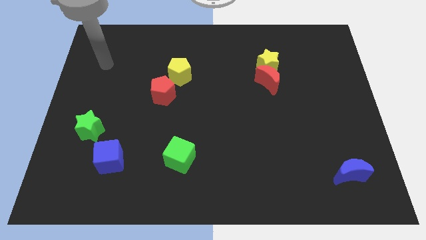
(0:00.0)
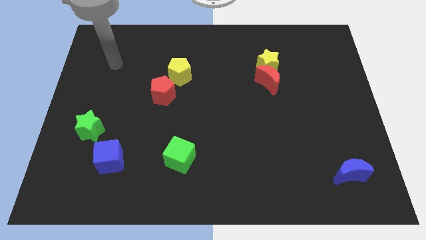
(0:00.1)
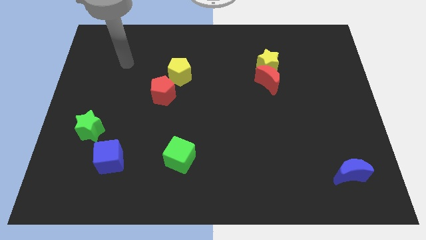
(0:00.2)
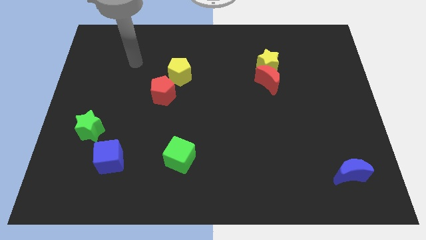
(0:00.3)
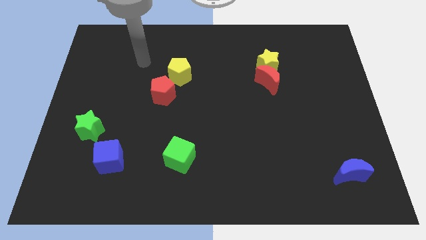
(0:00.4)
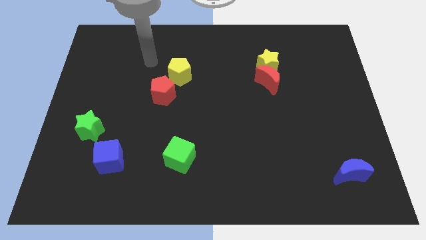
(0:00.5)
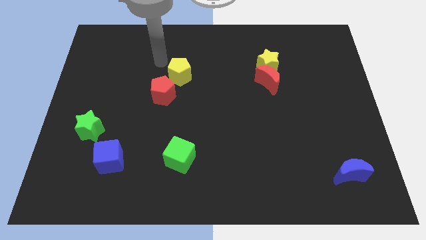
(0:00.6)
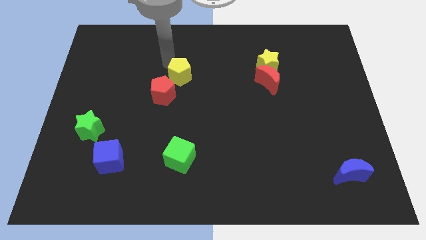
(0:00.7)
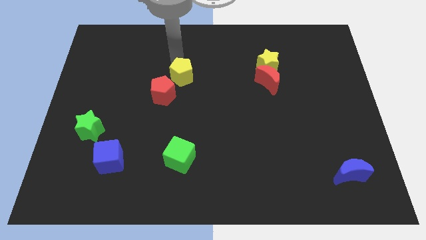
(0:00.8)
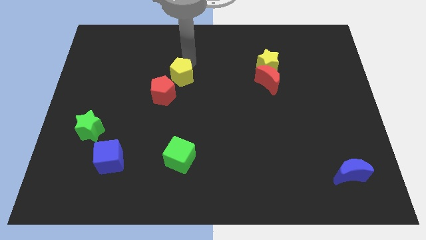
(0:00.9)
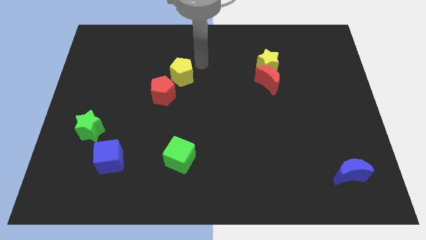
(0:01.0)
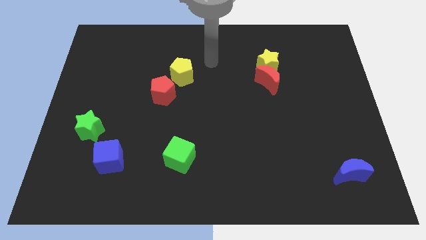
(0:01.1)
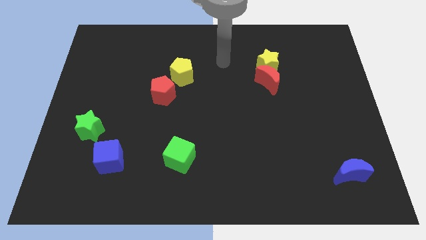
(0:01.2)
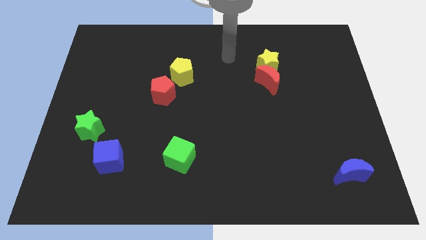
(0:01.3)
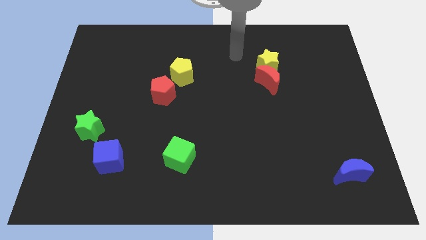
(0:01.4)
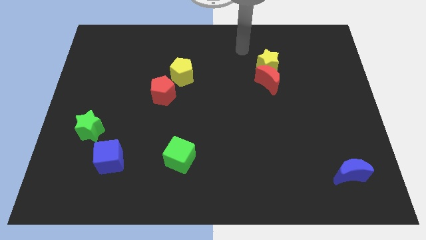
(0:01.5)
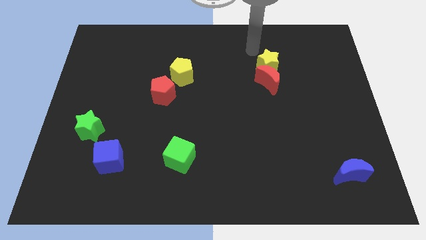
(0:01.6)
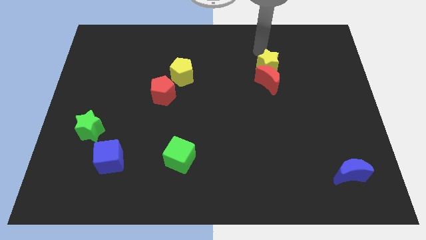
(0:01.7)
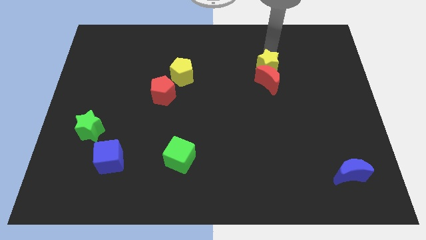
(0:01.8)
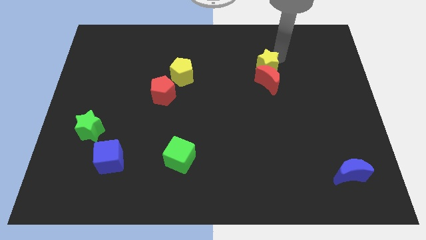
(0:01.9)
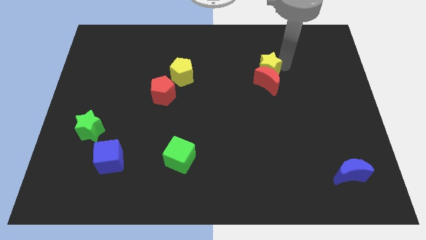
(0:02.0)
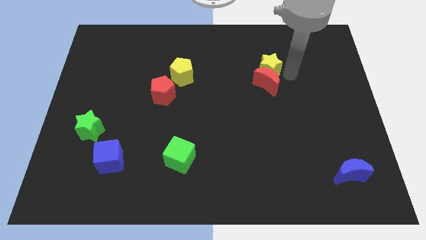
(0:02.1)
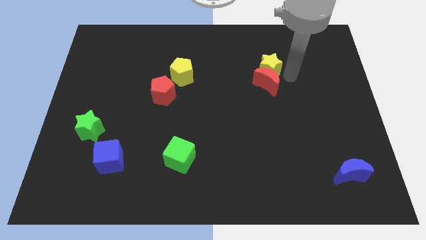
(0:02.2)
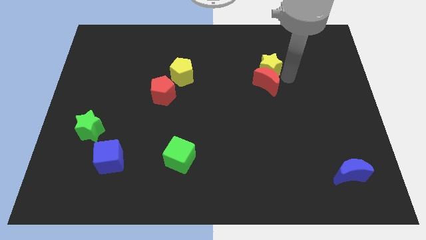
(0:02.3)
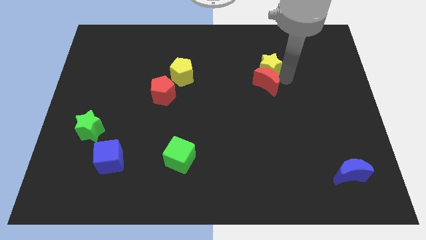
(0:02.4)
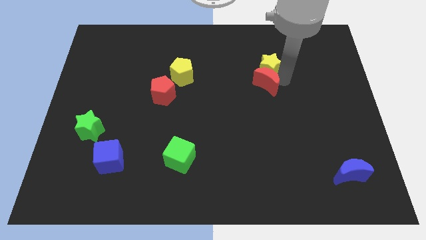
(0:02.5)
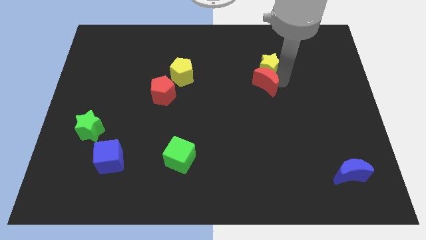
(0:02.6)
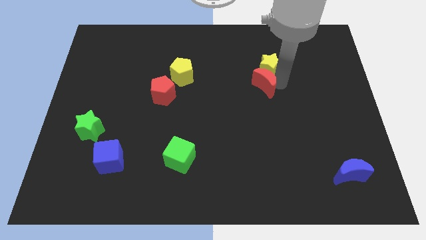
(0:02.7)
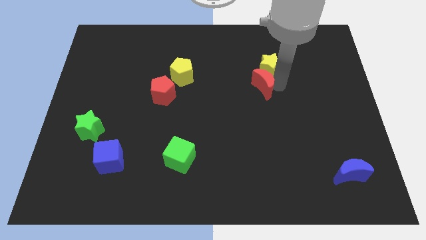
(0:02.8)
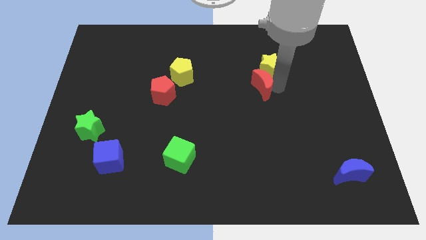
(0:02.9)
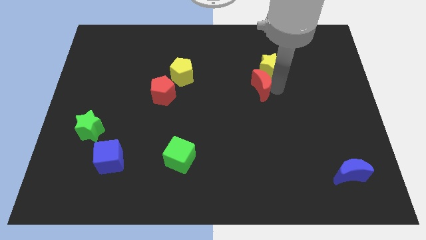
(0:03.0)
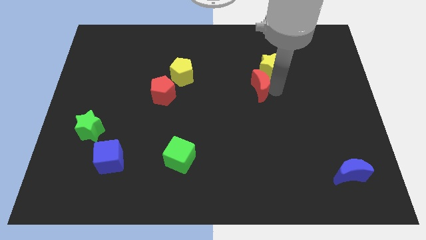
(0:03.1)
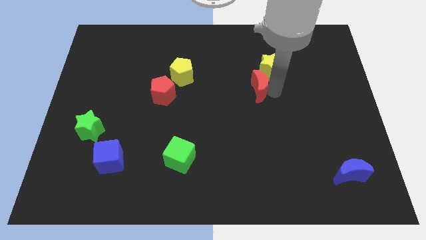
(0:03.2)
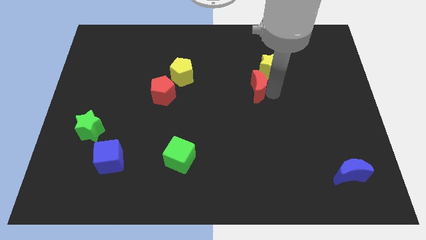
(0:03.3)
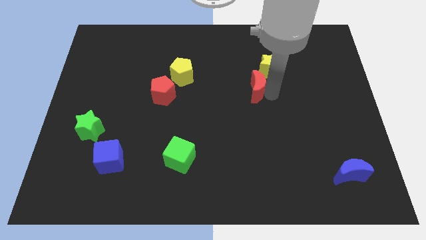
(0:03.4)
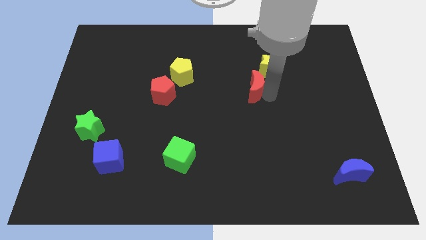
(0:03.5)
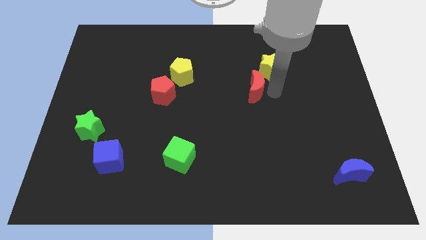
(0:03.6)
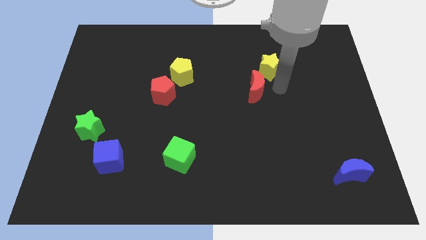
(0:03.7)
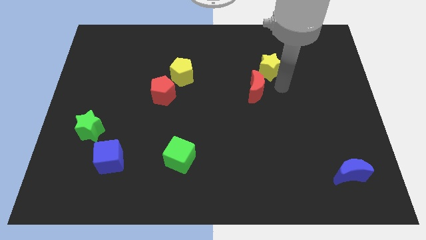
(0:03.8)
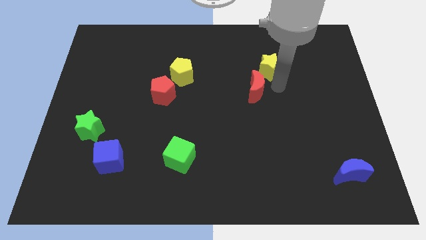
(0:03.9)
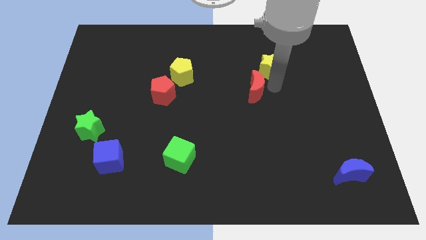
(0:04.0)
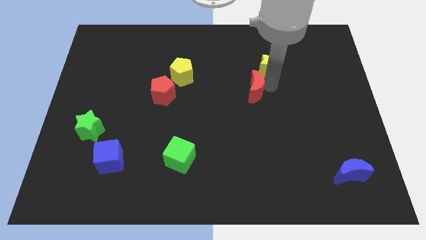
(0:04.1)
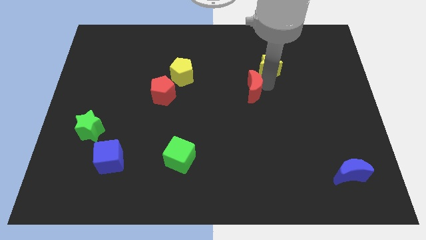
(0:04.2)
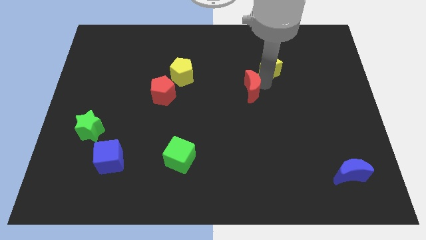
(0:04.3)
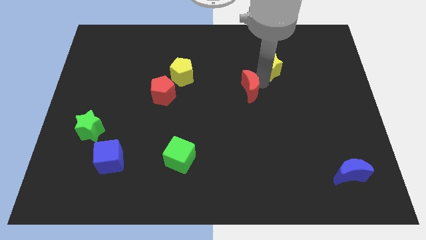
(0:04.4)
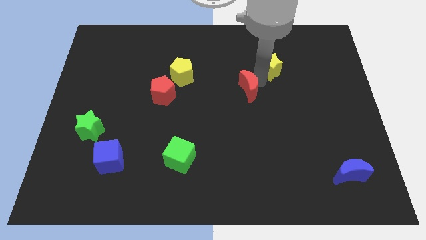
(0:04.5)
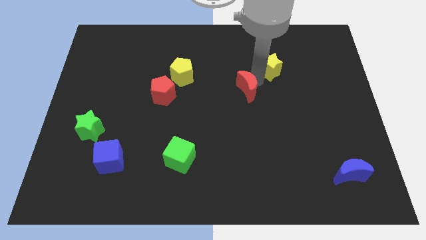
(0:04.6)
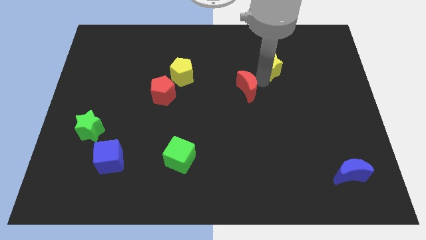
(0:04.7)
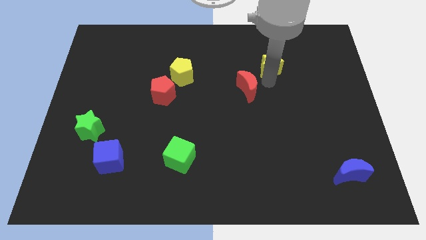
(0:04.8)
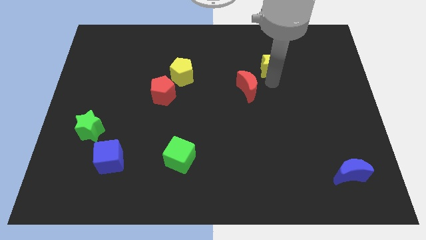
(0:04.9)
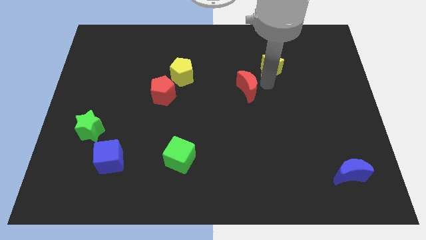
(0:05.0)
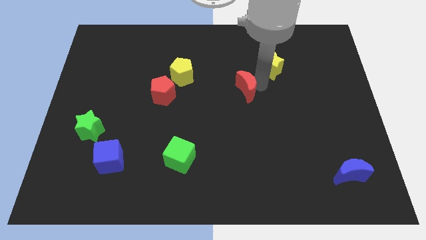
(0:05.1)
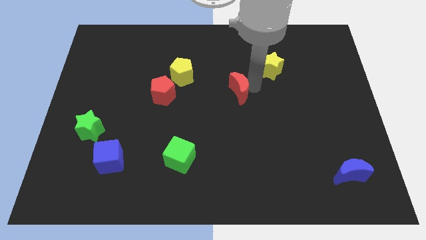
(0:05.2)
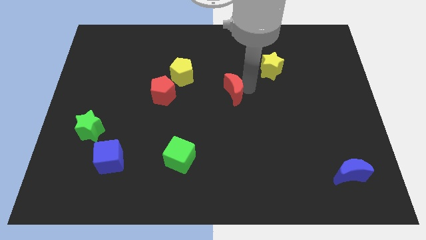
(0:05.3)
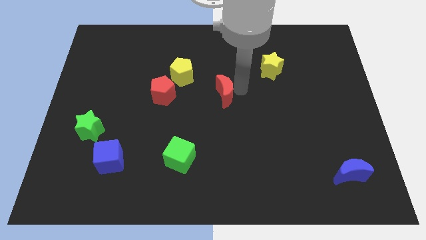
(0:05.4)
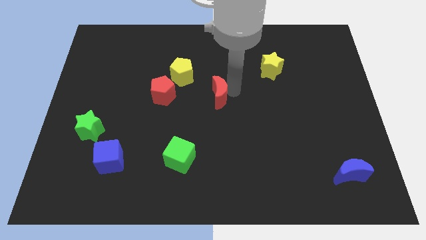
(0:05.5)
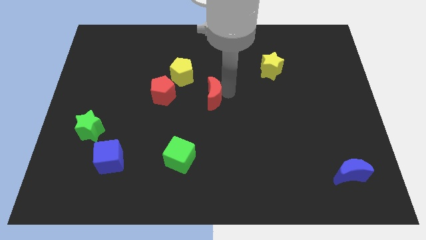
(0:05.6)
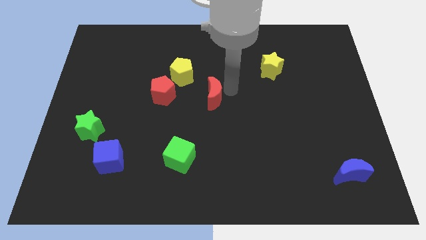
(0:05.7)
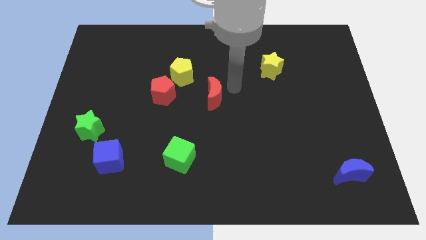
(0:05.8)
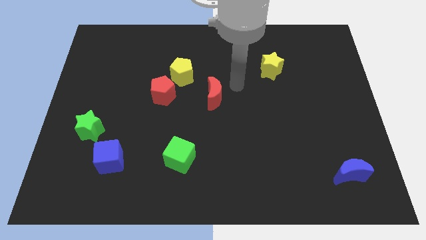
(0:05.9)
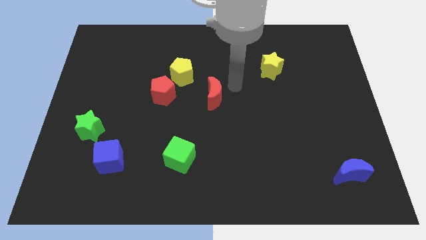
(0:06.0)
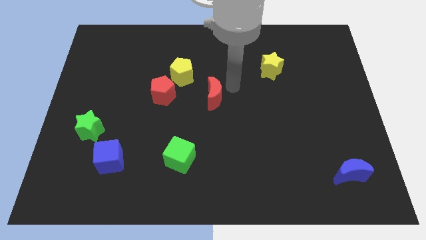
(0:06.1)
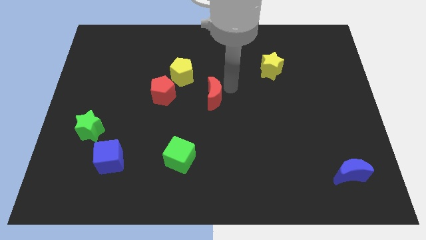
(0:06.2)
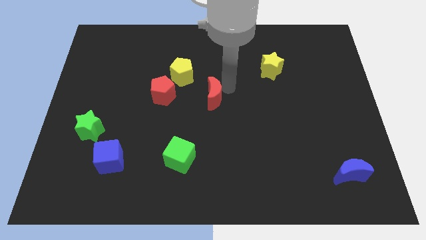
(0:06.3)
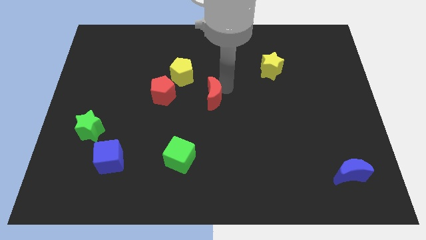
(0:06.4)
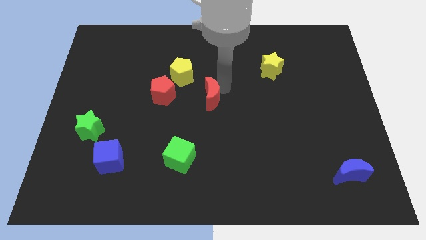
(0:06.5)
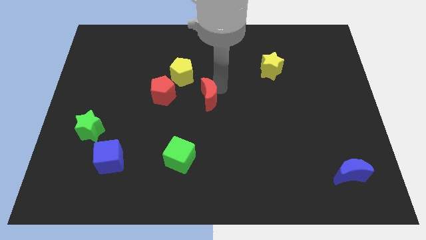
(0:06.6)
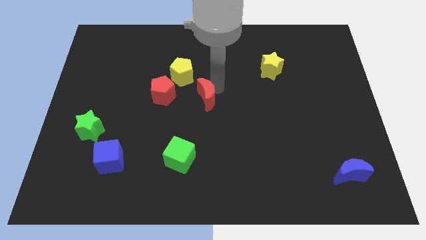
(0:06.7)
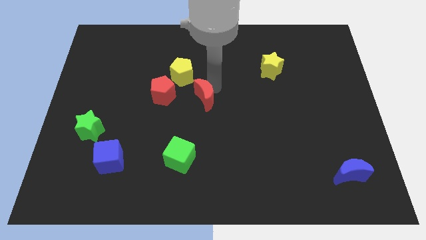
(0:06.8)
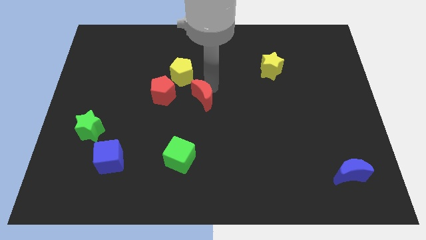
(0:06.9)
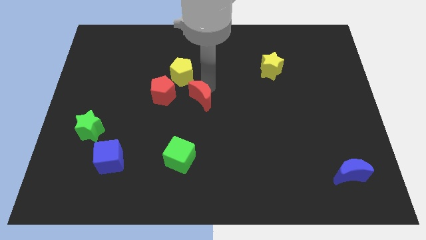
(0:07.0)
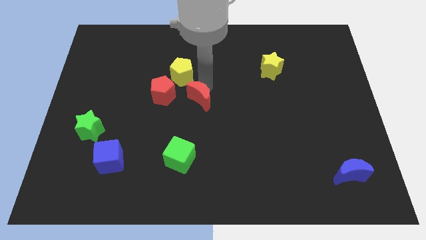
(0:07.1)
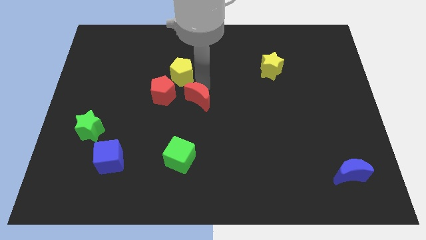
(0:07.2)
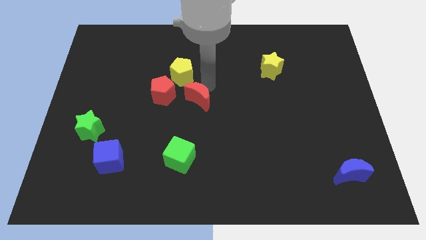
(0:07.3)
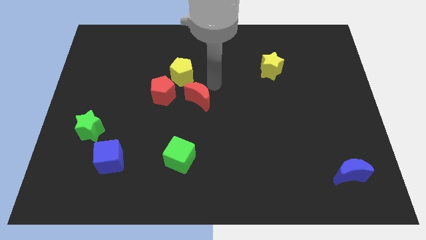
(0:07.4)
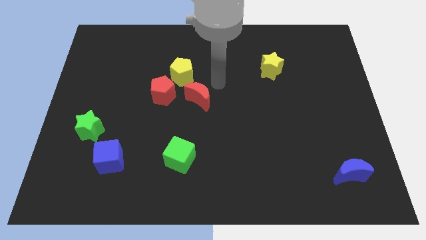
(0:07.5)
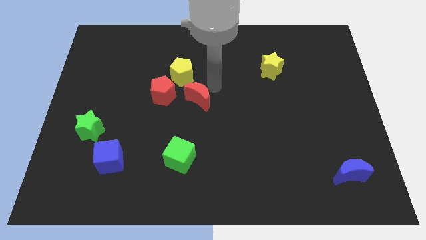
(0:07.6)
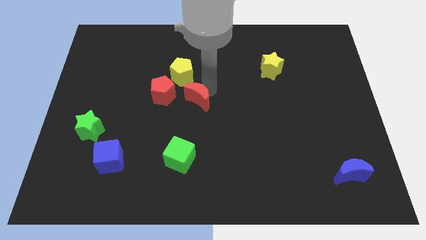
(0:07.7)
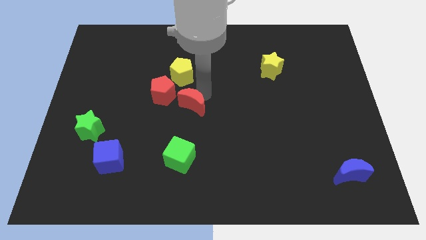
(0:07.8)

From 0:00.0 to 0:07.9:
push the red moon to the bottom right of the red pentagon
